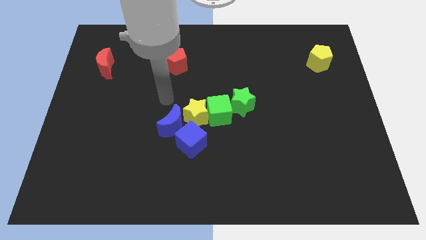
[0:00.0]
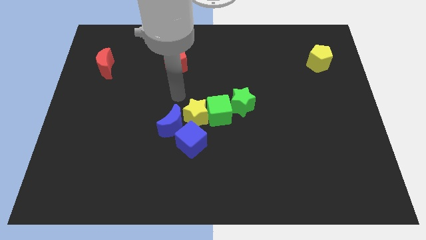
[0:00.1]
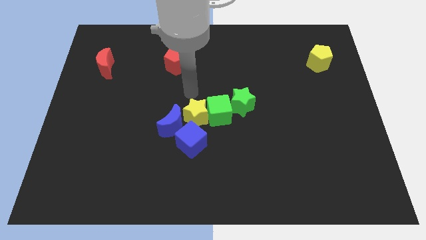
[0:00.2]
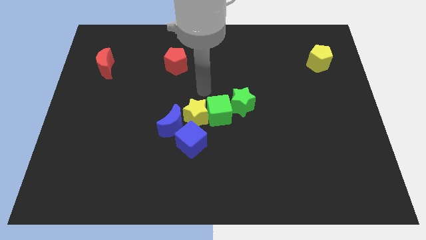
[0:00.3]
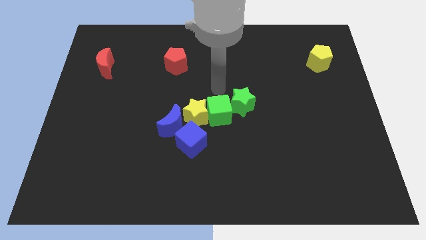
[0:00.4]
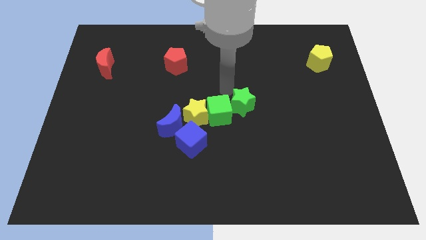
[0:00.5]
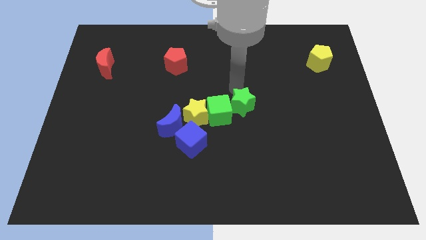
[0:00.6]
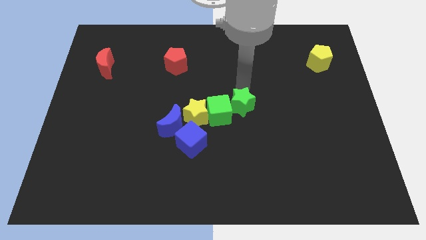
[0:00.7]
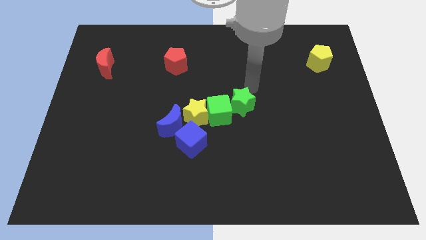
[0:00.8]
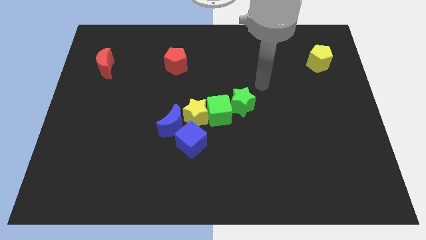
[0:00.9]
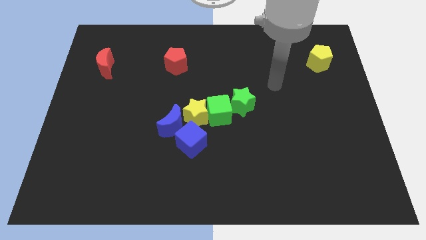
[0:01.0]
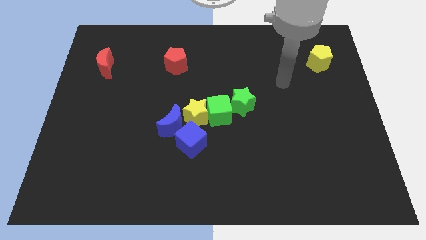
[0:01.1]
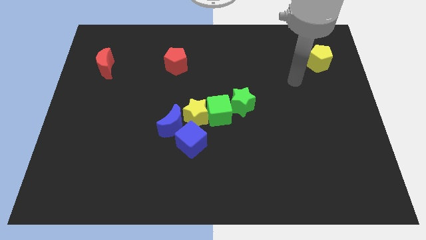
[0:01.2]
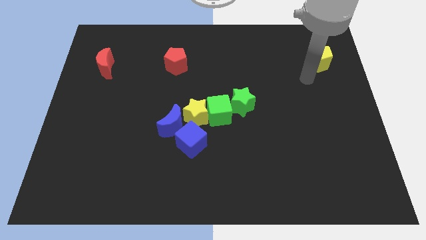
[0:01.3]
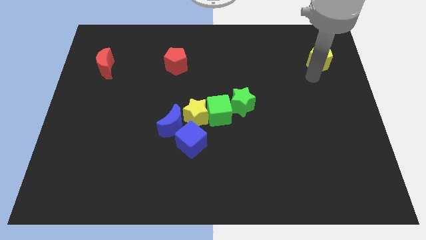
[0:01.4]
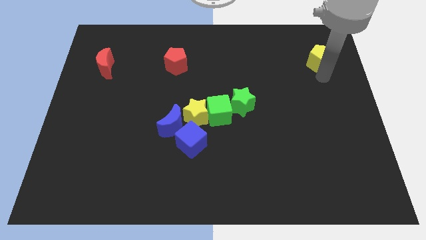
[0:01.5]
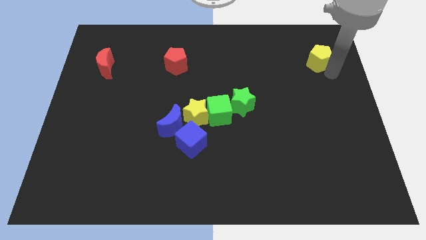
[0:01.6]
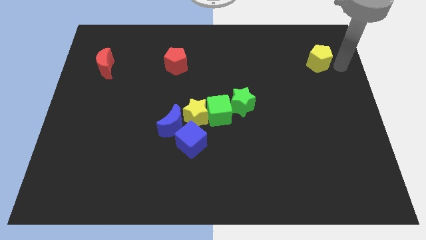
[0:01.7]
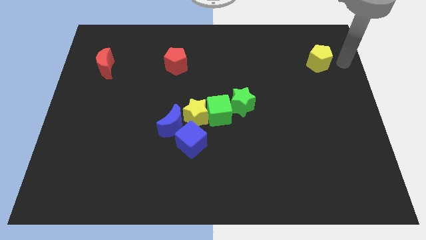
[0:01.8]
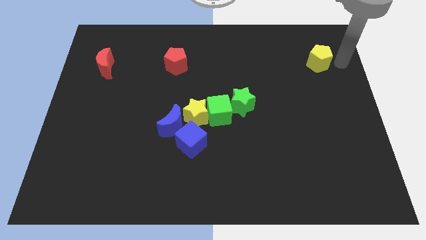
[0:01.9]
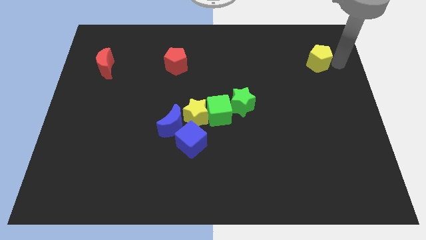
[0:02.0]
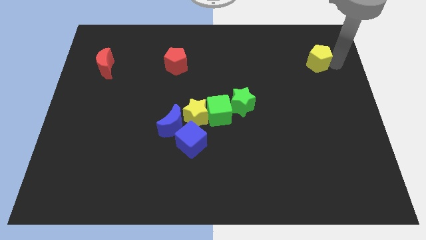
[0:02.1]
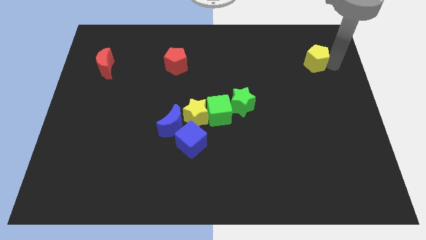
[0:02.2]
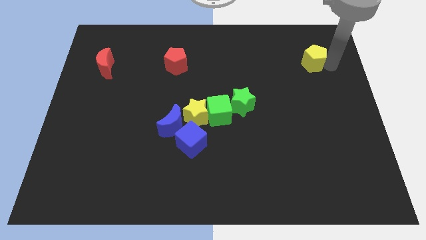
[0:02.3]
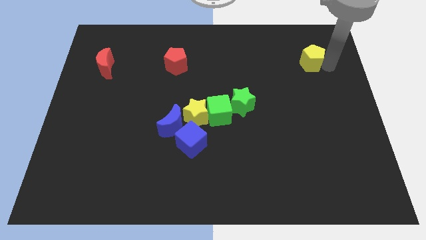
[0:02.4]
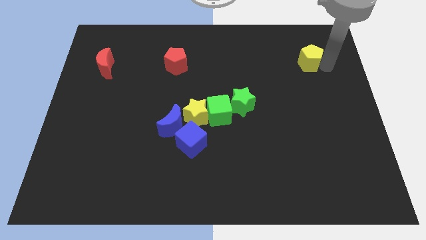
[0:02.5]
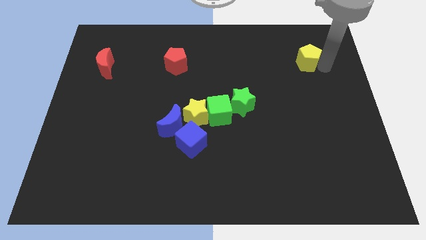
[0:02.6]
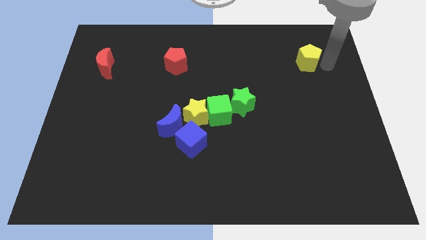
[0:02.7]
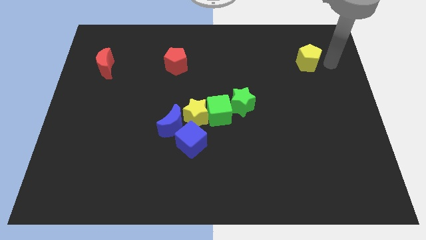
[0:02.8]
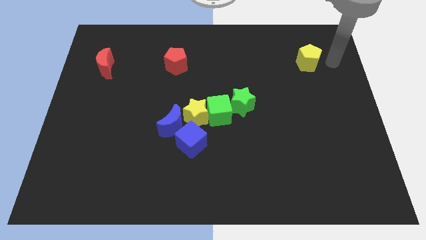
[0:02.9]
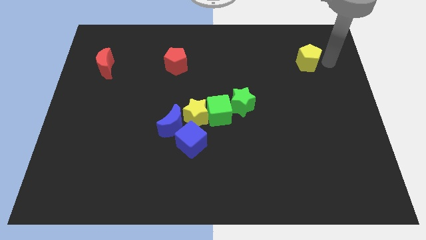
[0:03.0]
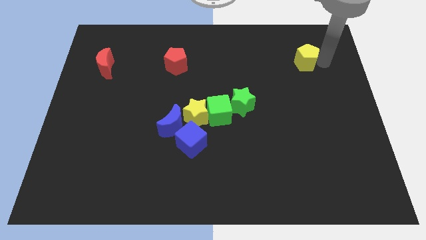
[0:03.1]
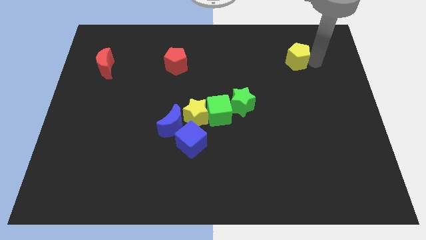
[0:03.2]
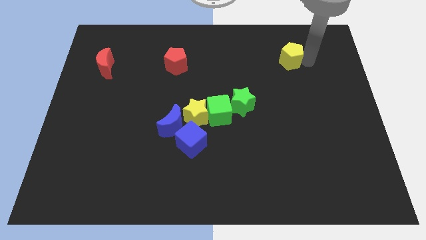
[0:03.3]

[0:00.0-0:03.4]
slide the yellow pentagon a little bit left

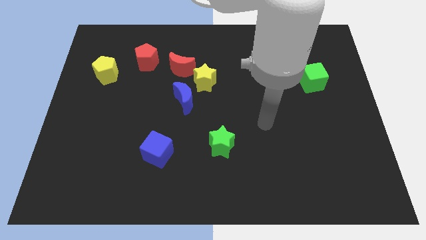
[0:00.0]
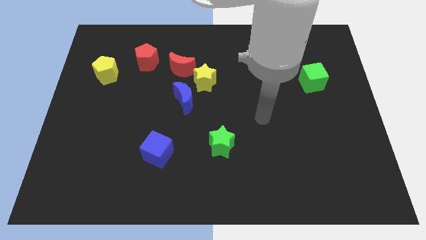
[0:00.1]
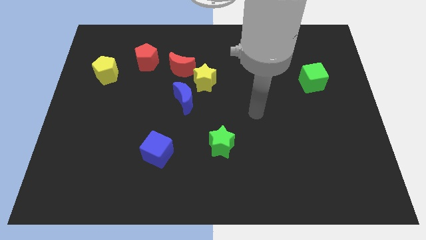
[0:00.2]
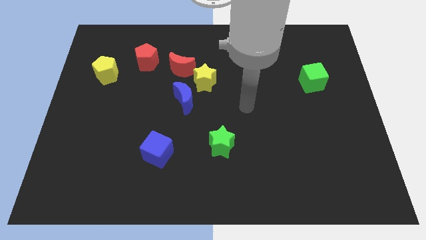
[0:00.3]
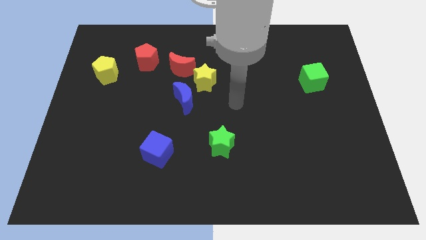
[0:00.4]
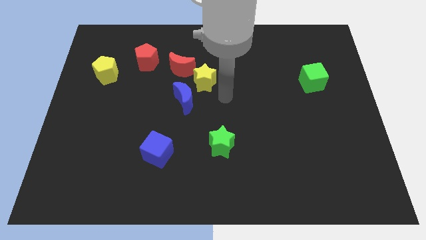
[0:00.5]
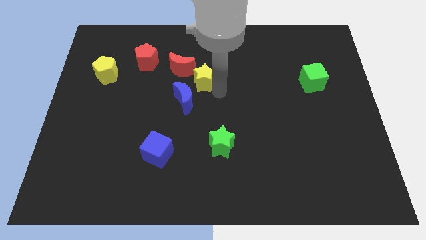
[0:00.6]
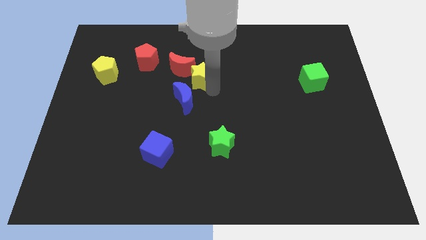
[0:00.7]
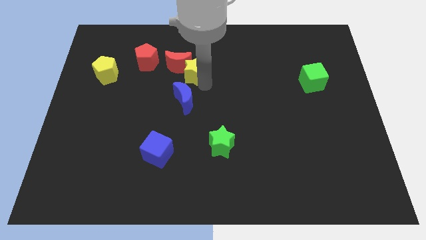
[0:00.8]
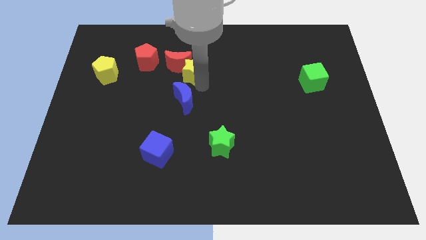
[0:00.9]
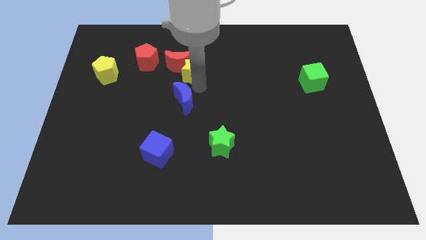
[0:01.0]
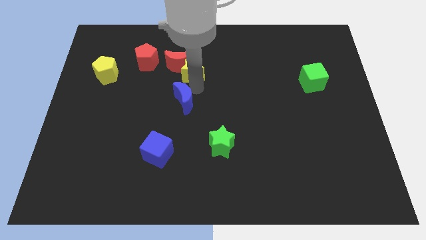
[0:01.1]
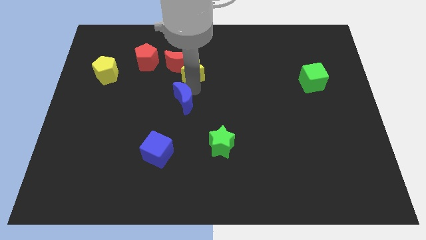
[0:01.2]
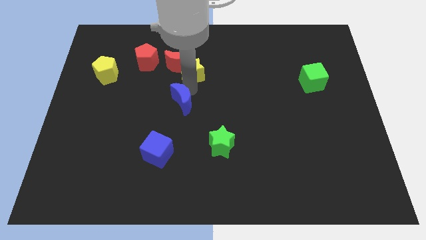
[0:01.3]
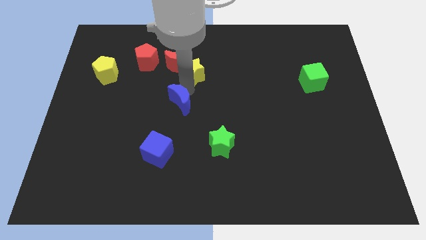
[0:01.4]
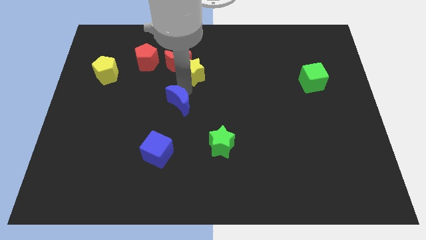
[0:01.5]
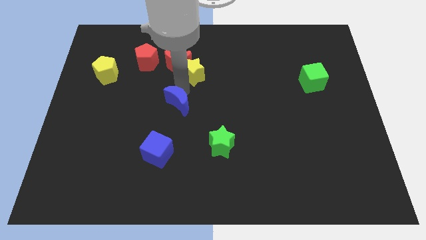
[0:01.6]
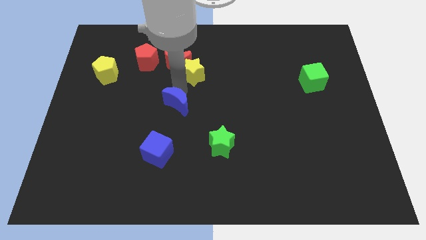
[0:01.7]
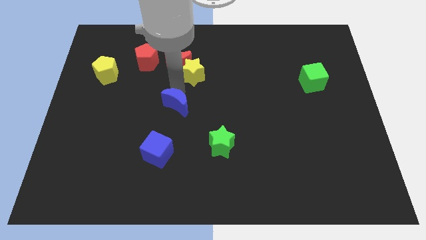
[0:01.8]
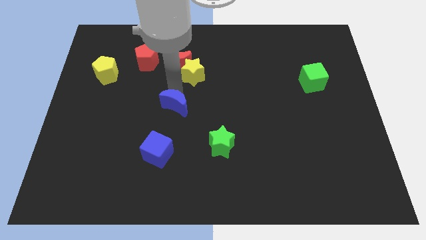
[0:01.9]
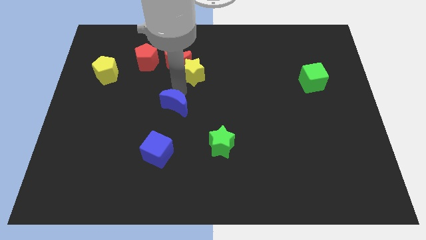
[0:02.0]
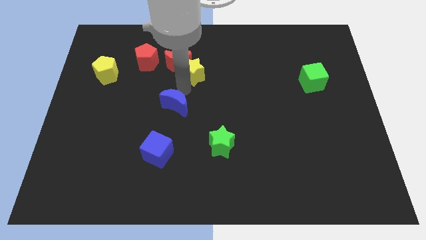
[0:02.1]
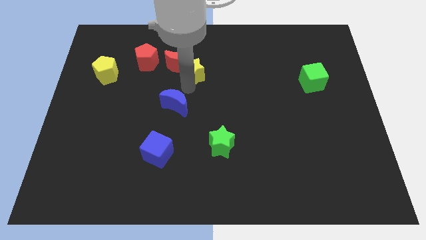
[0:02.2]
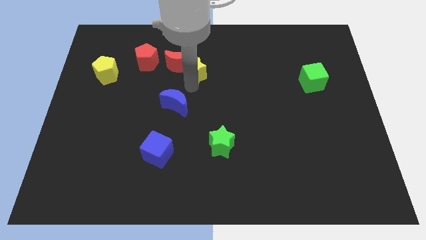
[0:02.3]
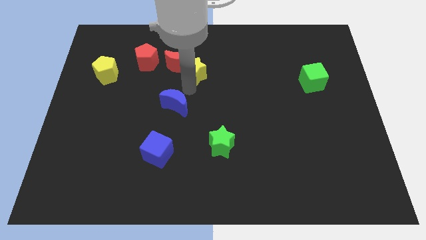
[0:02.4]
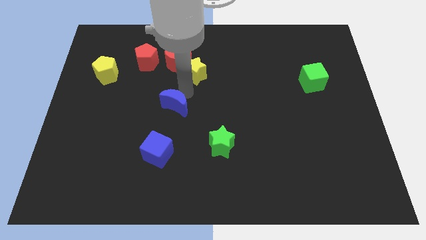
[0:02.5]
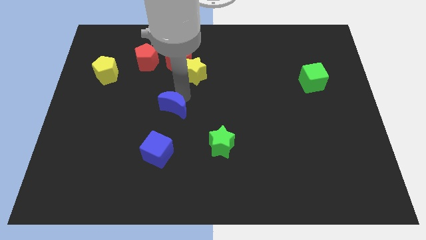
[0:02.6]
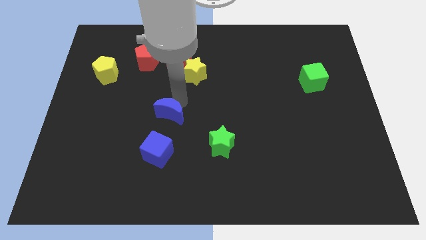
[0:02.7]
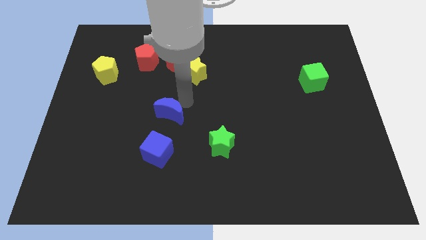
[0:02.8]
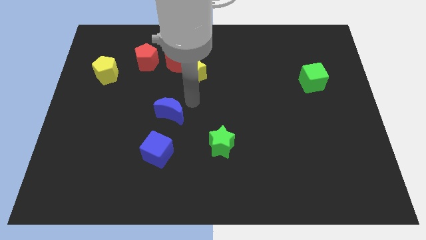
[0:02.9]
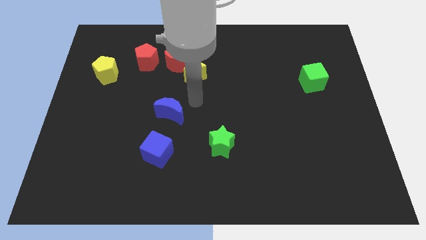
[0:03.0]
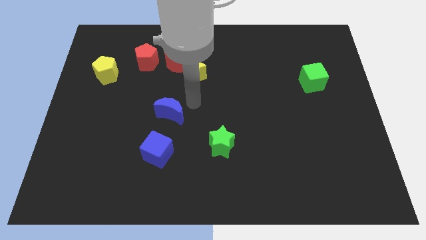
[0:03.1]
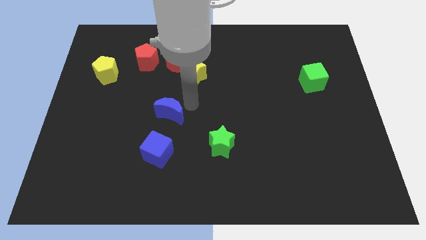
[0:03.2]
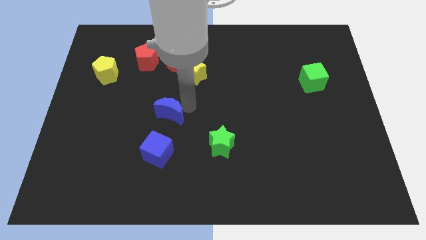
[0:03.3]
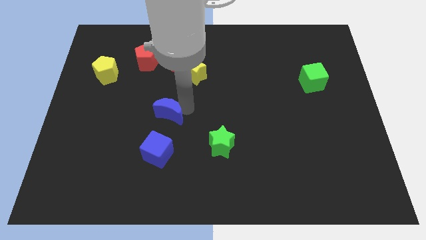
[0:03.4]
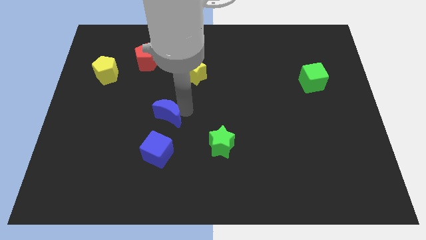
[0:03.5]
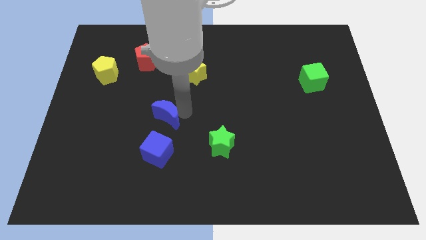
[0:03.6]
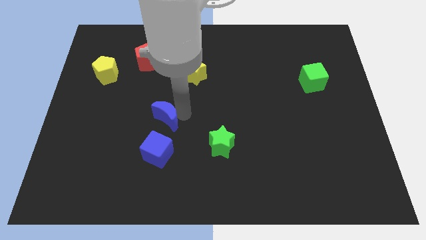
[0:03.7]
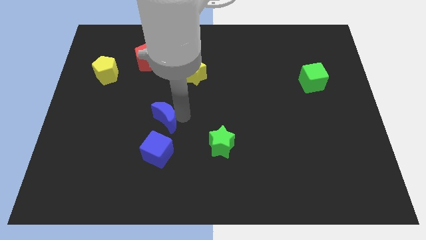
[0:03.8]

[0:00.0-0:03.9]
push the blue moon diagonally down and to the left a little bit

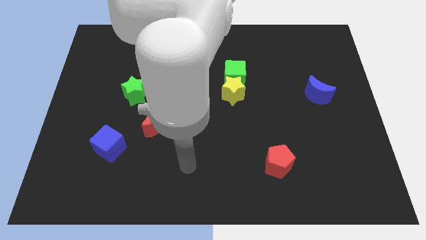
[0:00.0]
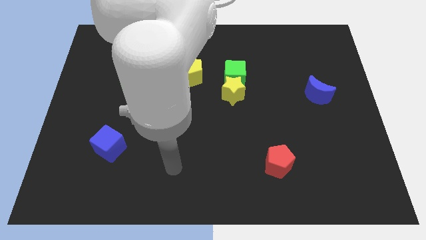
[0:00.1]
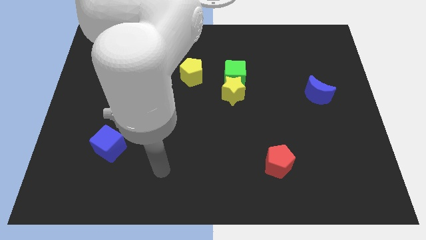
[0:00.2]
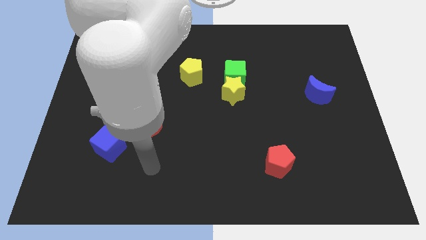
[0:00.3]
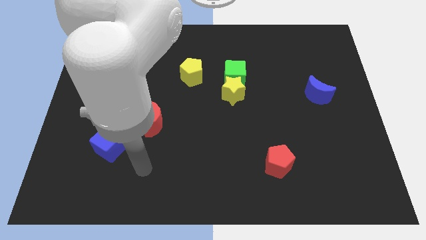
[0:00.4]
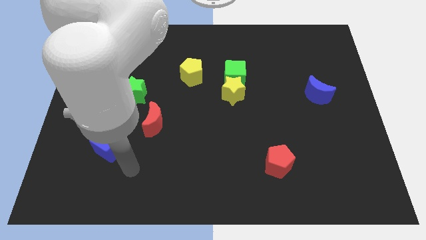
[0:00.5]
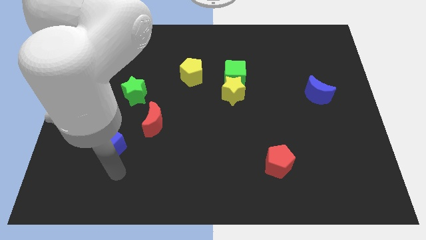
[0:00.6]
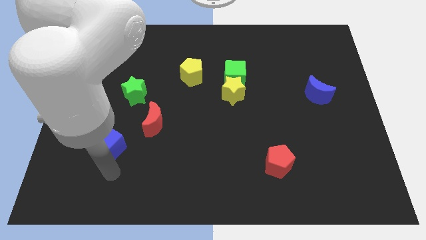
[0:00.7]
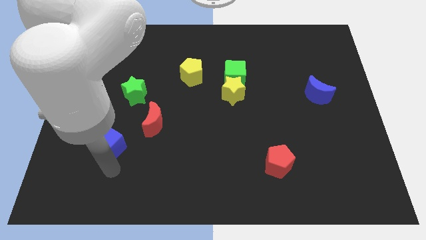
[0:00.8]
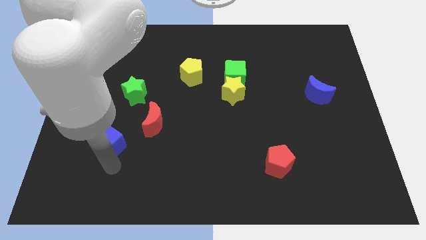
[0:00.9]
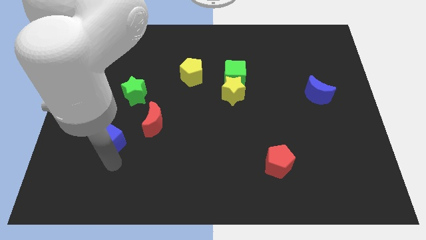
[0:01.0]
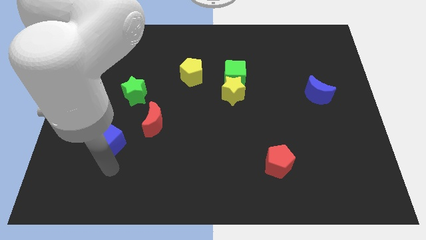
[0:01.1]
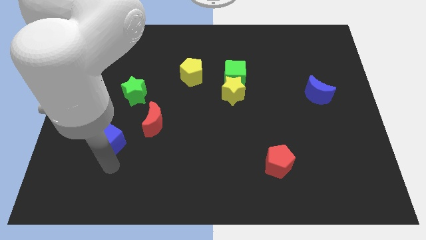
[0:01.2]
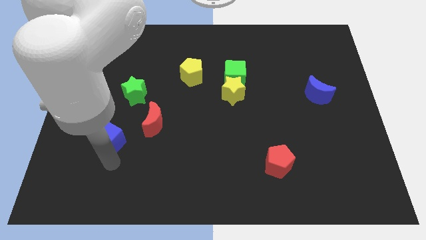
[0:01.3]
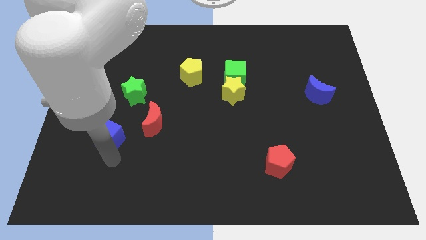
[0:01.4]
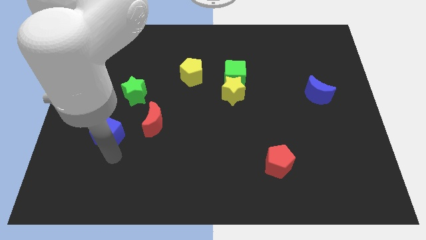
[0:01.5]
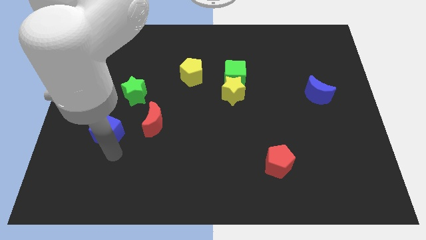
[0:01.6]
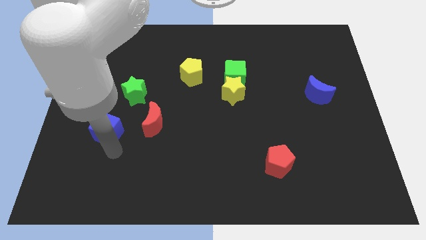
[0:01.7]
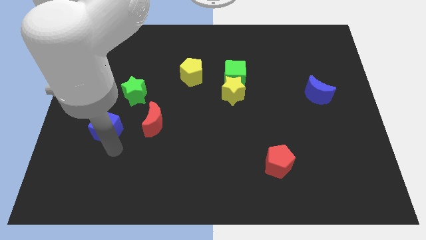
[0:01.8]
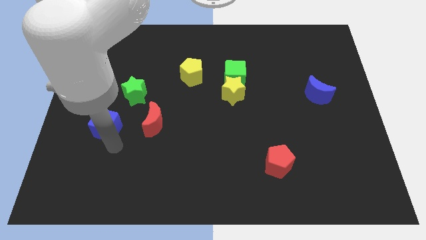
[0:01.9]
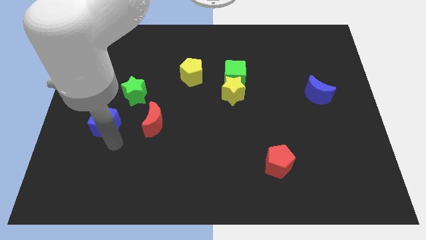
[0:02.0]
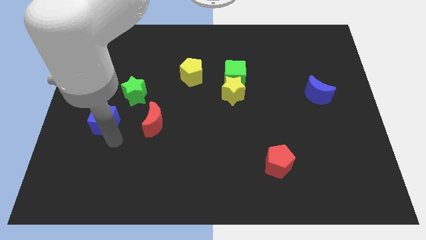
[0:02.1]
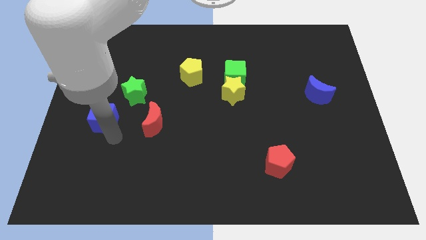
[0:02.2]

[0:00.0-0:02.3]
slide the blue cube up slightly
